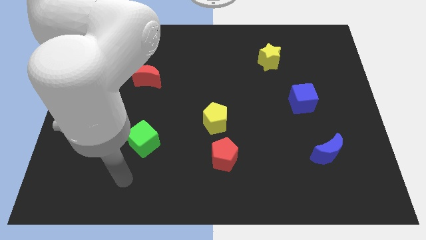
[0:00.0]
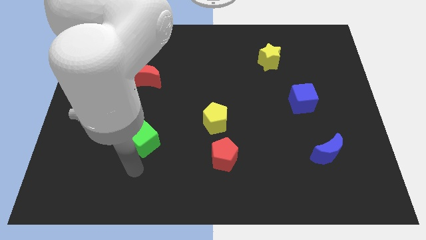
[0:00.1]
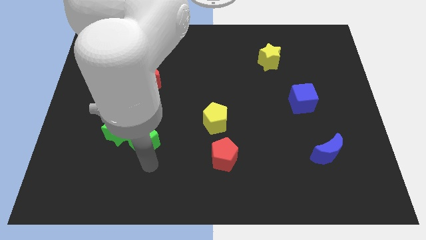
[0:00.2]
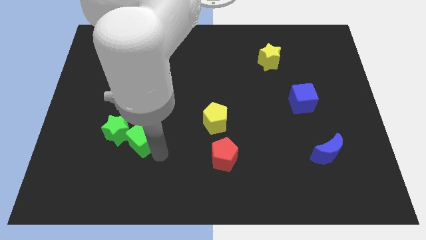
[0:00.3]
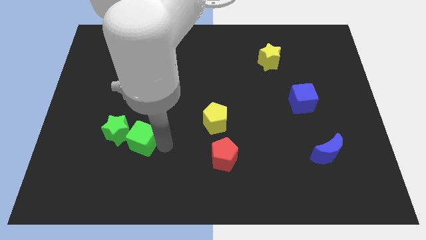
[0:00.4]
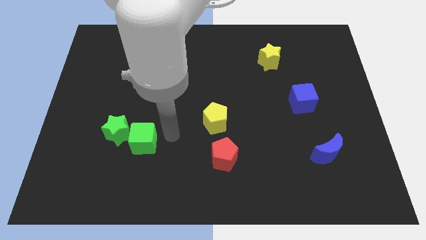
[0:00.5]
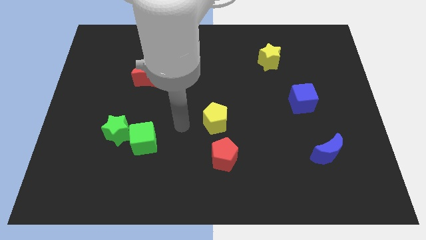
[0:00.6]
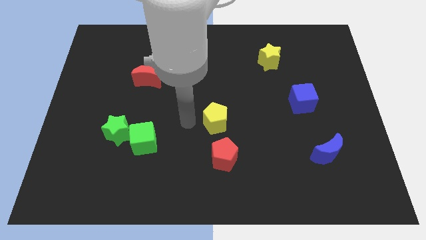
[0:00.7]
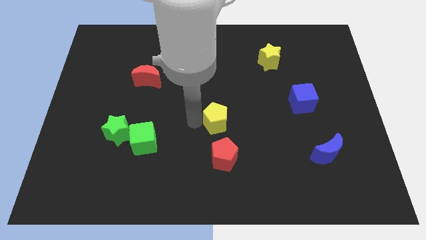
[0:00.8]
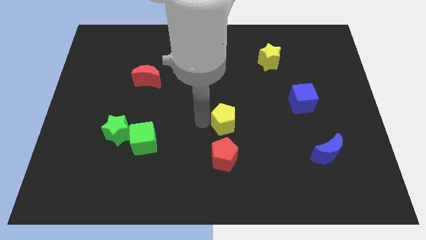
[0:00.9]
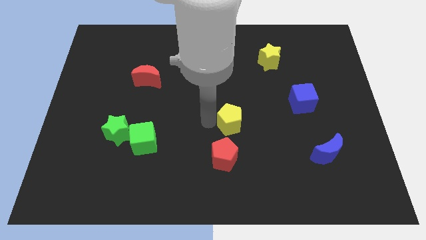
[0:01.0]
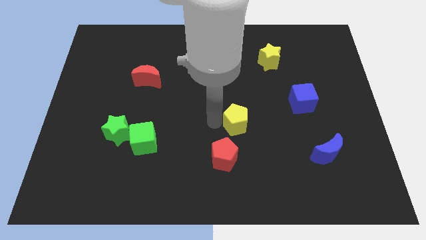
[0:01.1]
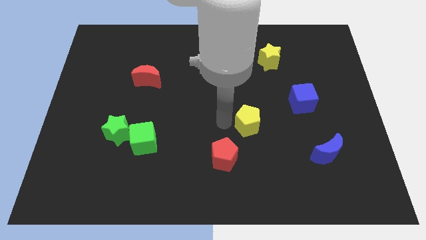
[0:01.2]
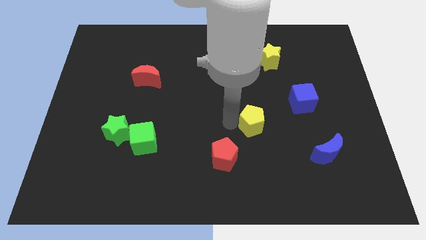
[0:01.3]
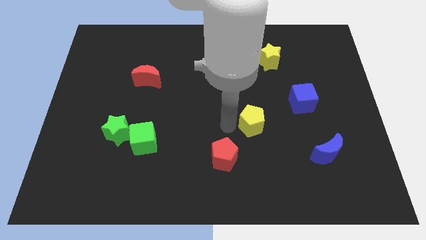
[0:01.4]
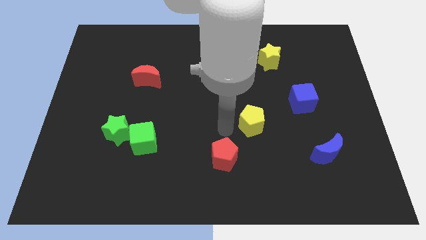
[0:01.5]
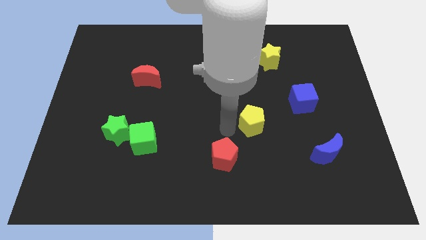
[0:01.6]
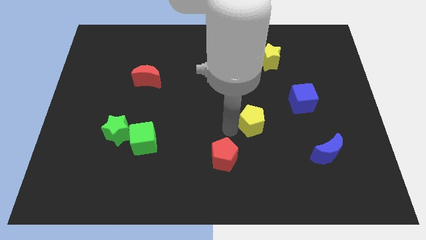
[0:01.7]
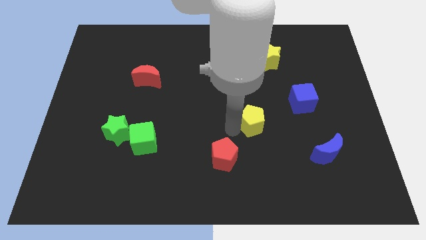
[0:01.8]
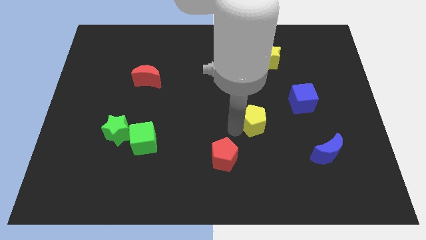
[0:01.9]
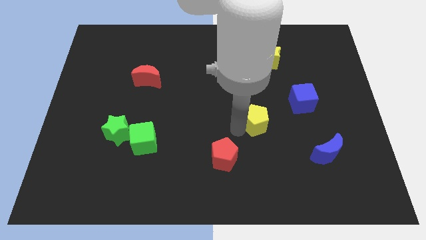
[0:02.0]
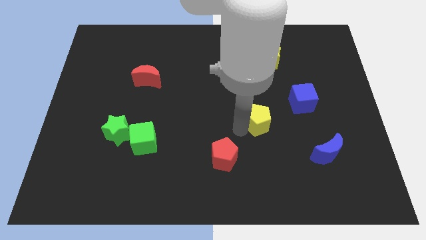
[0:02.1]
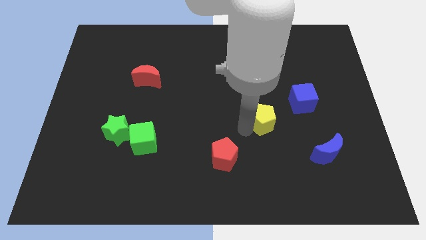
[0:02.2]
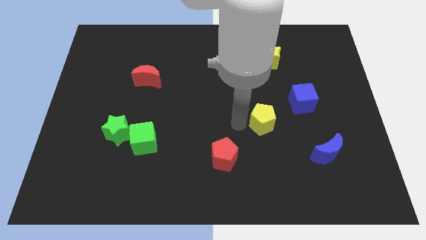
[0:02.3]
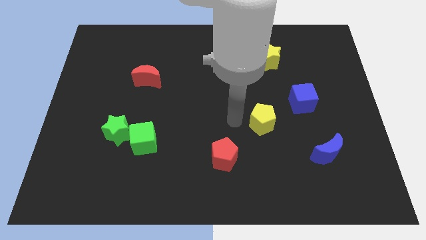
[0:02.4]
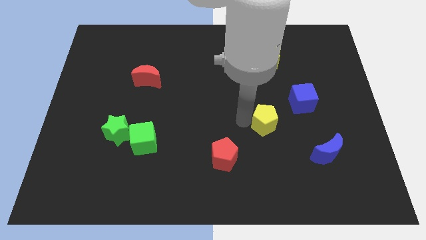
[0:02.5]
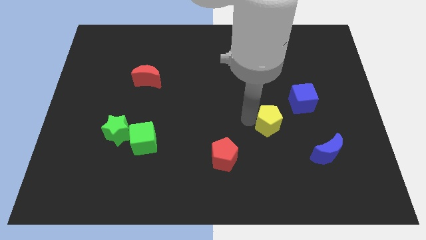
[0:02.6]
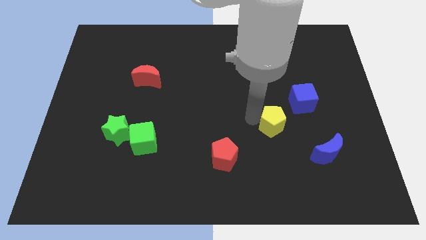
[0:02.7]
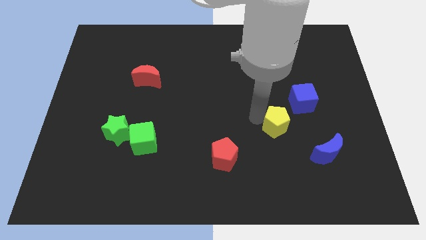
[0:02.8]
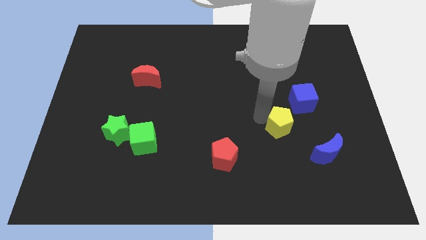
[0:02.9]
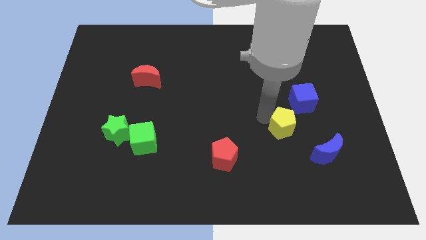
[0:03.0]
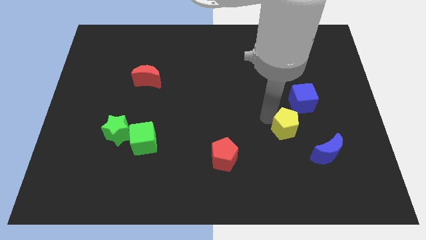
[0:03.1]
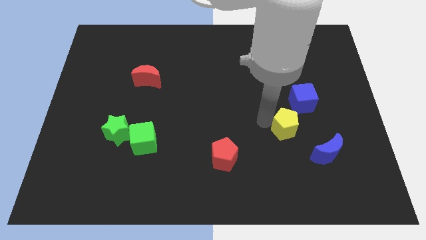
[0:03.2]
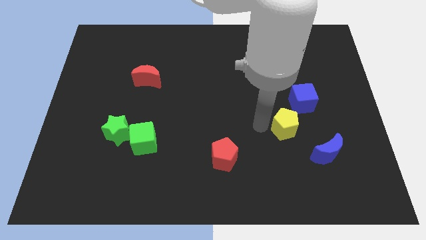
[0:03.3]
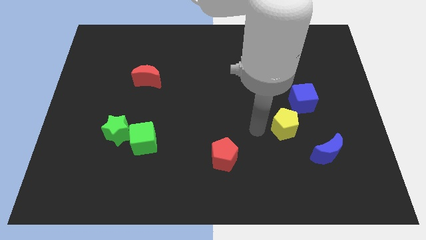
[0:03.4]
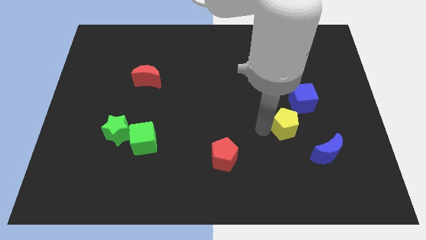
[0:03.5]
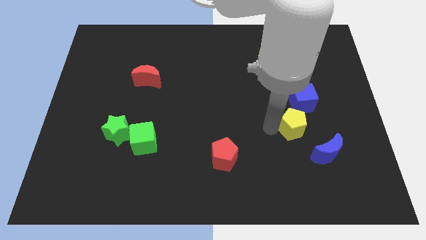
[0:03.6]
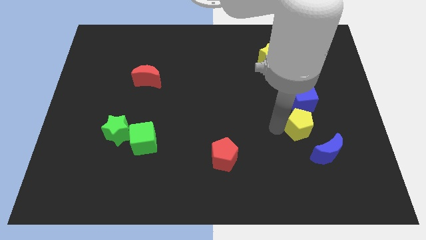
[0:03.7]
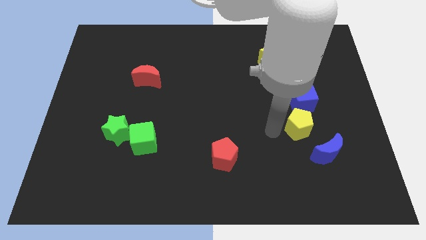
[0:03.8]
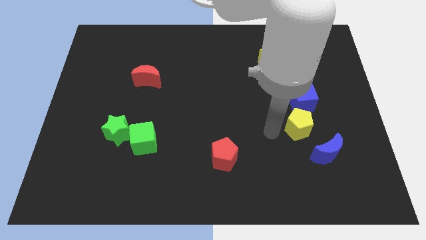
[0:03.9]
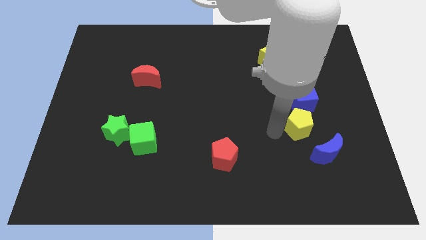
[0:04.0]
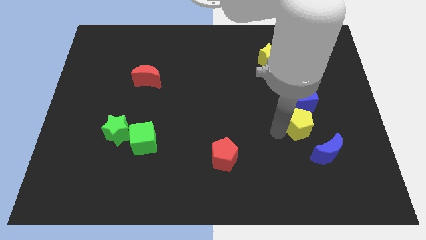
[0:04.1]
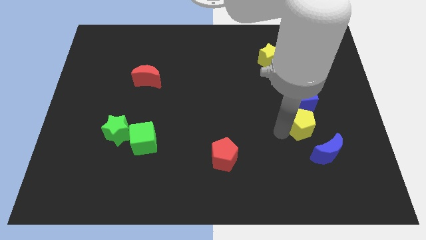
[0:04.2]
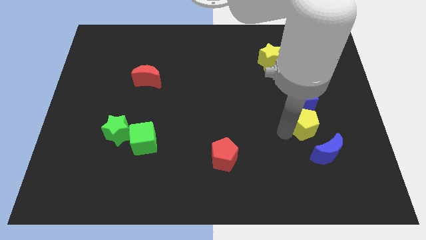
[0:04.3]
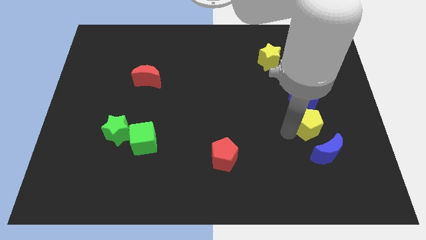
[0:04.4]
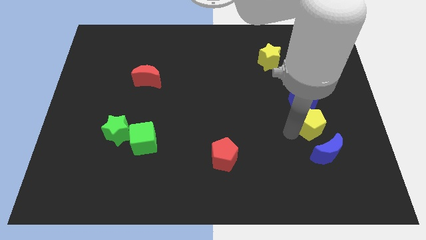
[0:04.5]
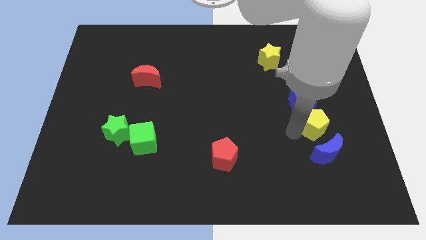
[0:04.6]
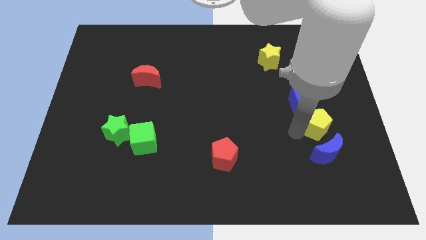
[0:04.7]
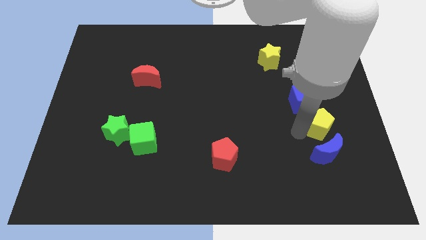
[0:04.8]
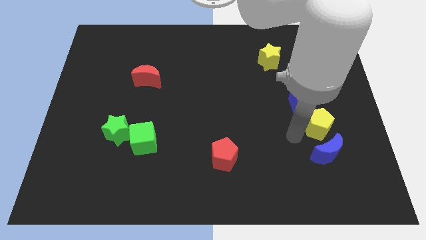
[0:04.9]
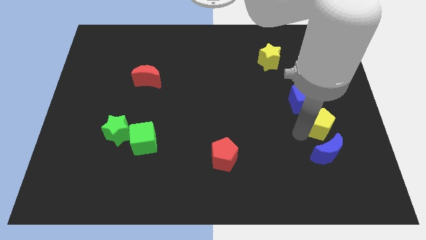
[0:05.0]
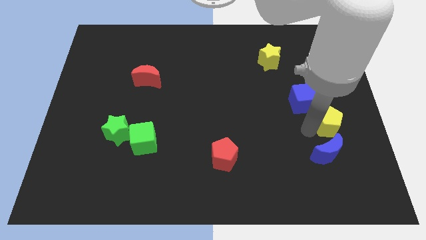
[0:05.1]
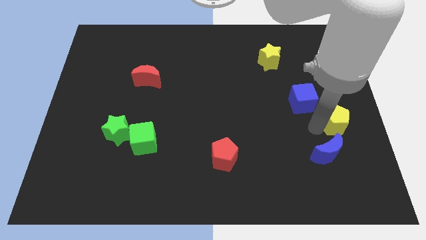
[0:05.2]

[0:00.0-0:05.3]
slide the yellow pentagon to the right side

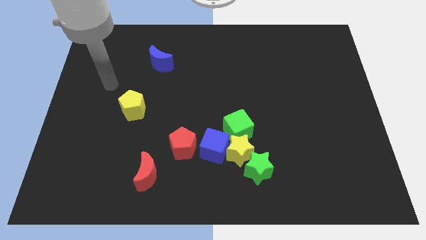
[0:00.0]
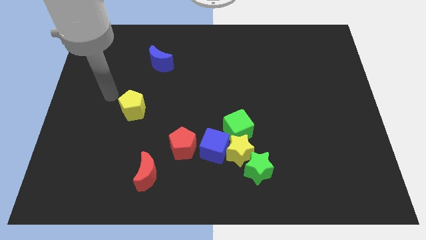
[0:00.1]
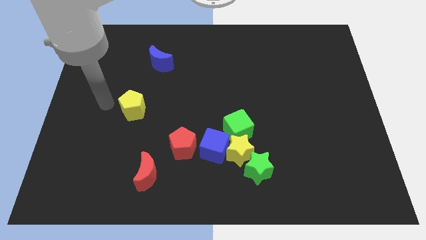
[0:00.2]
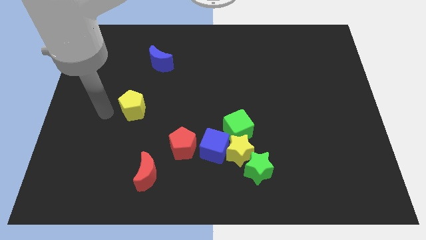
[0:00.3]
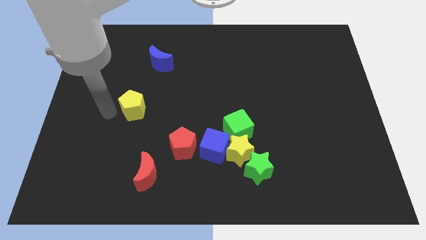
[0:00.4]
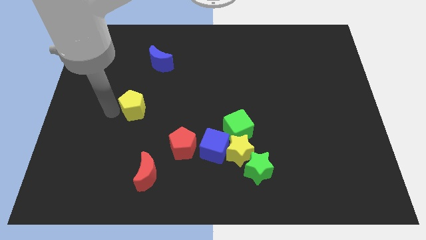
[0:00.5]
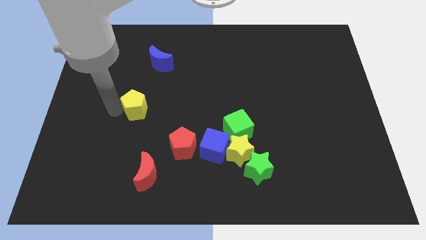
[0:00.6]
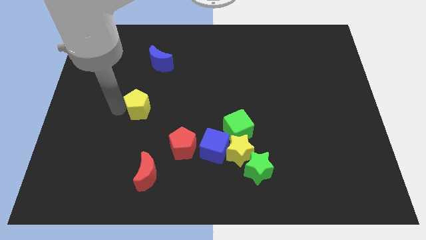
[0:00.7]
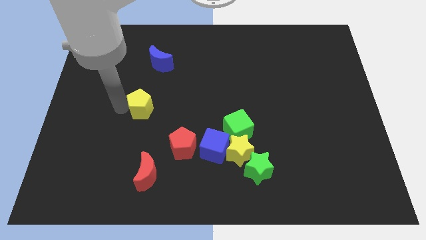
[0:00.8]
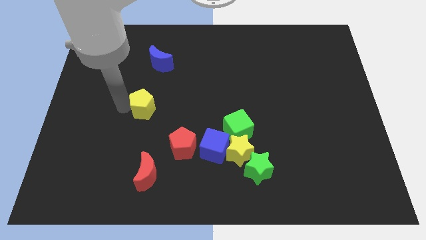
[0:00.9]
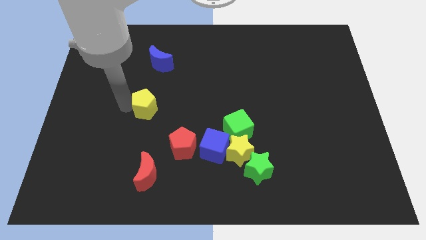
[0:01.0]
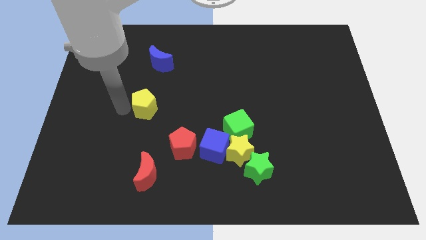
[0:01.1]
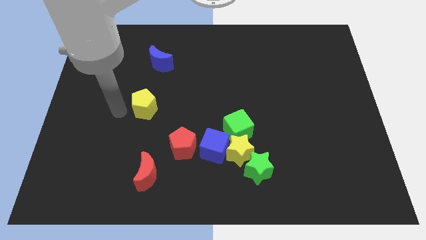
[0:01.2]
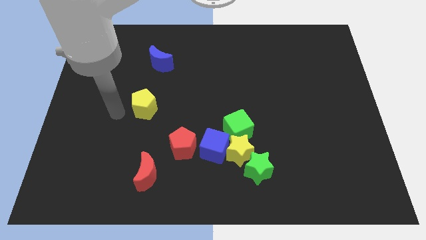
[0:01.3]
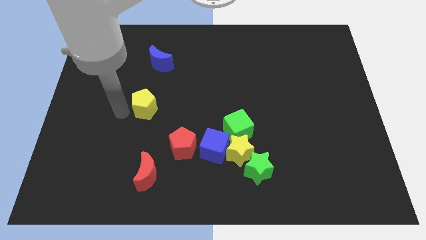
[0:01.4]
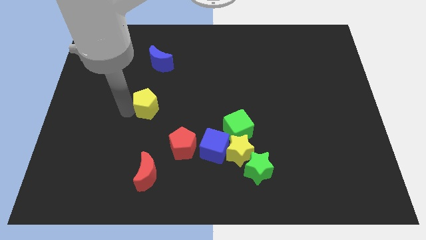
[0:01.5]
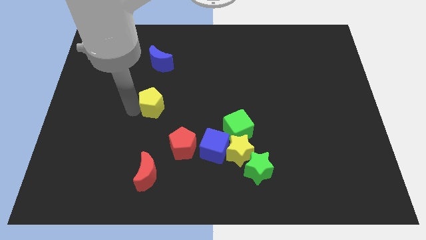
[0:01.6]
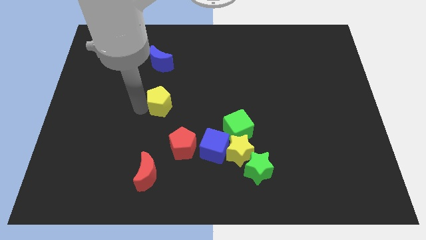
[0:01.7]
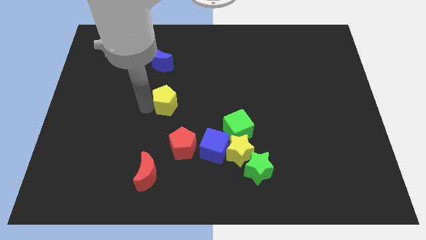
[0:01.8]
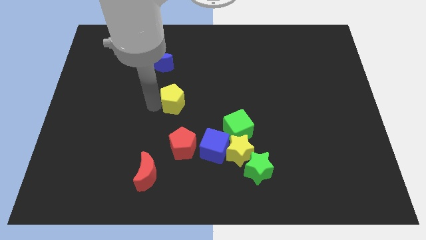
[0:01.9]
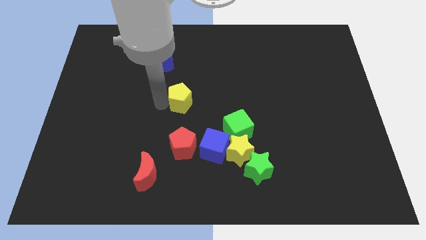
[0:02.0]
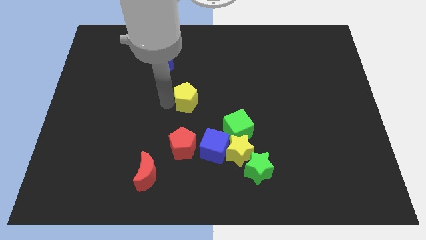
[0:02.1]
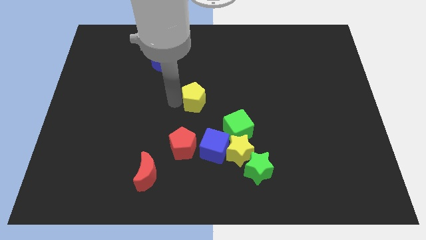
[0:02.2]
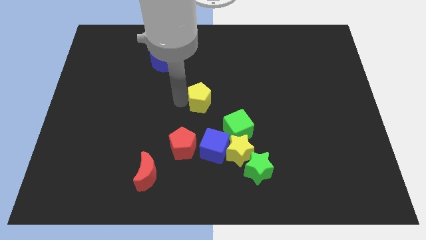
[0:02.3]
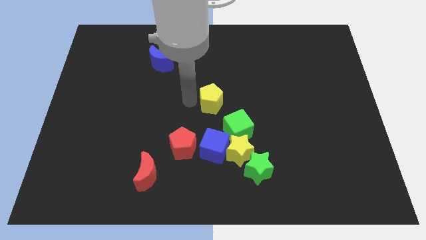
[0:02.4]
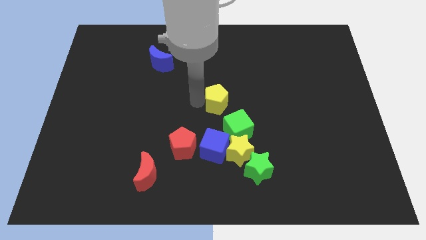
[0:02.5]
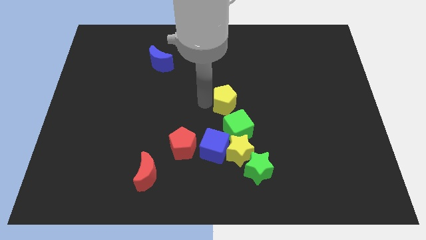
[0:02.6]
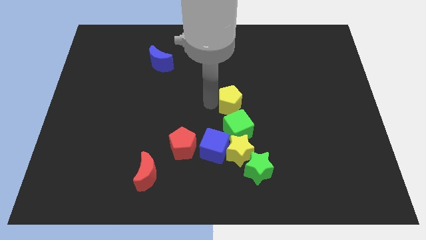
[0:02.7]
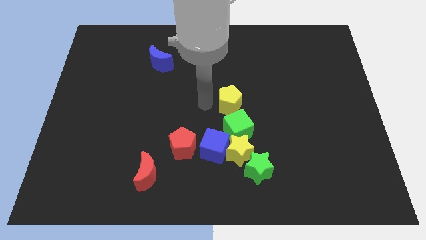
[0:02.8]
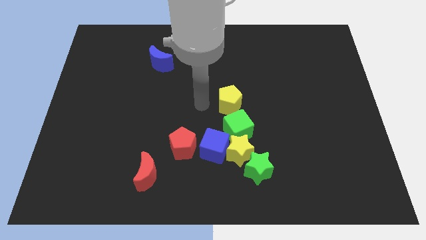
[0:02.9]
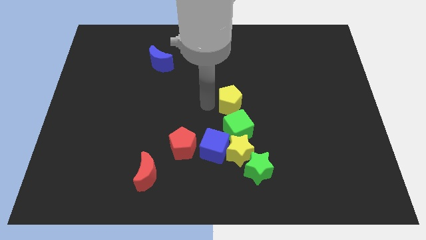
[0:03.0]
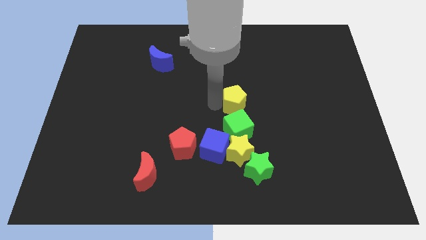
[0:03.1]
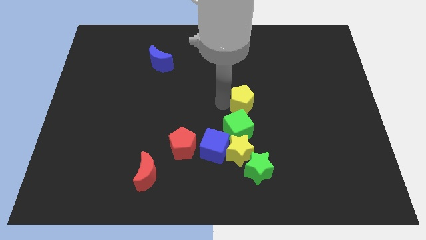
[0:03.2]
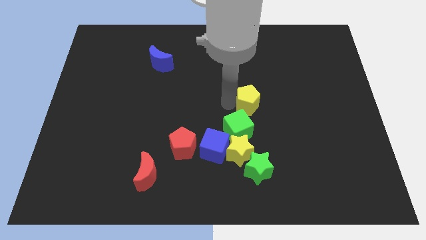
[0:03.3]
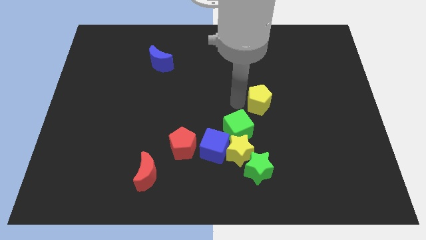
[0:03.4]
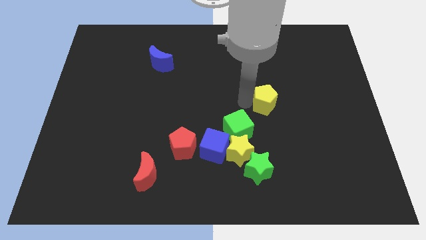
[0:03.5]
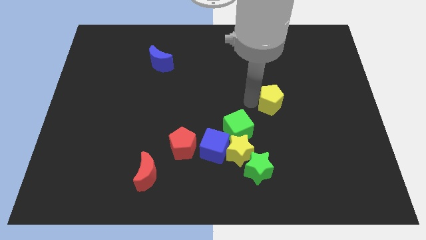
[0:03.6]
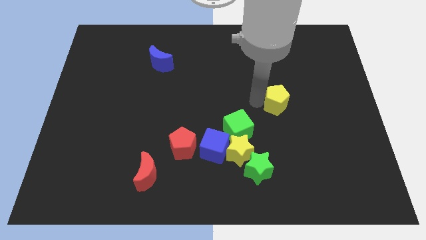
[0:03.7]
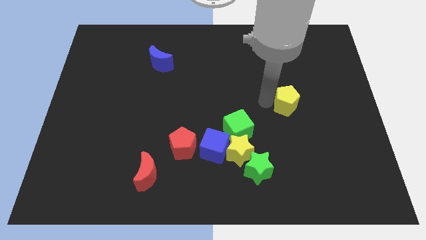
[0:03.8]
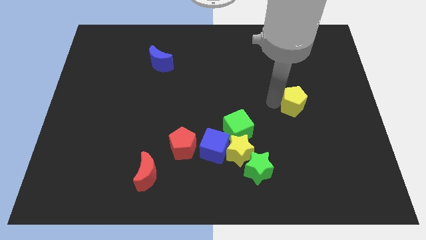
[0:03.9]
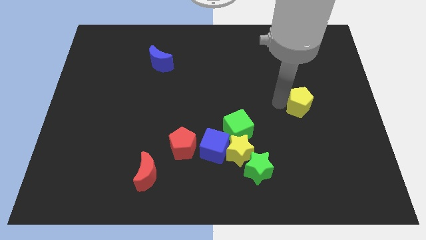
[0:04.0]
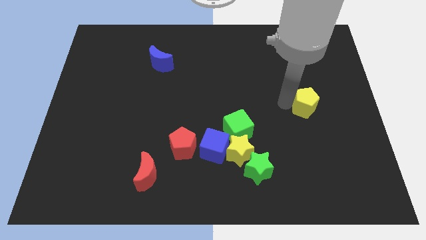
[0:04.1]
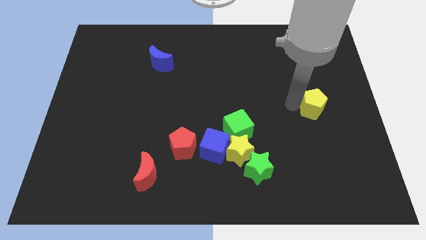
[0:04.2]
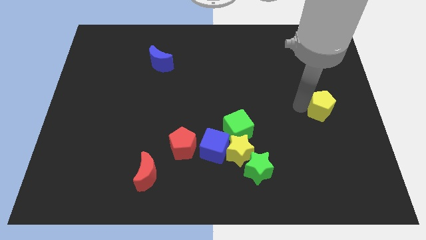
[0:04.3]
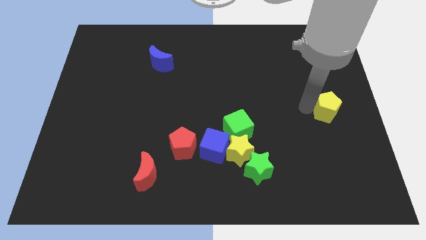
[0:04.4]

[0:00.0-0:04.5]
put the yellow pentagon to the center right
